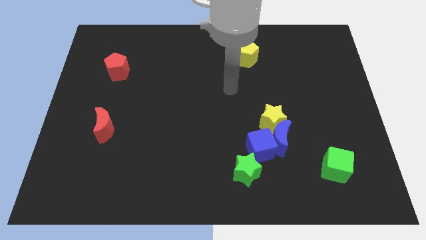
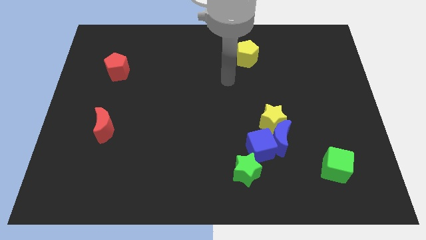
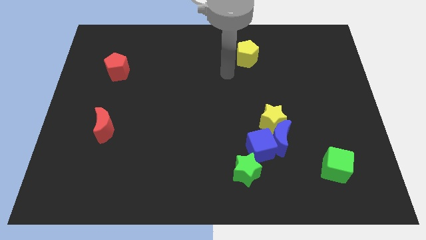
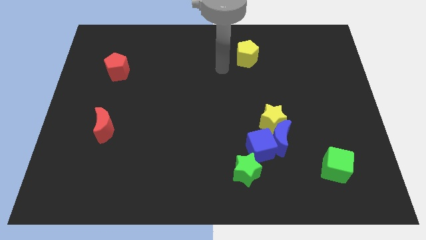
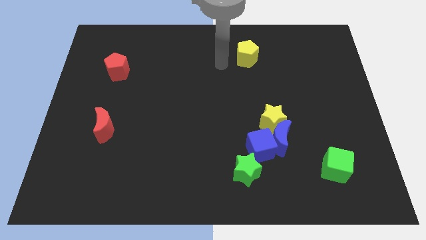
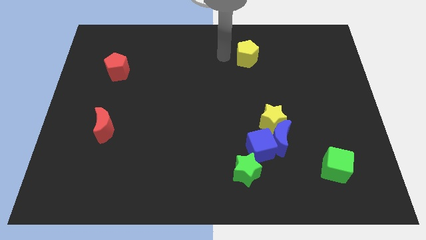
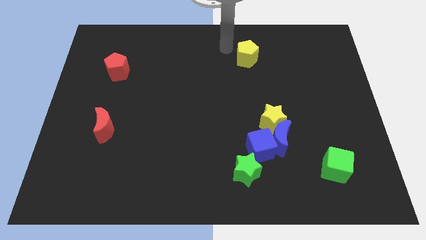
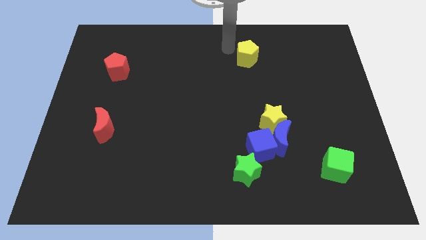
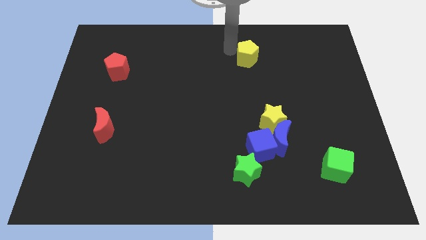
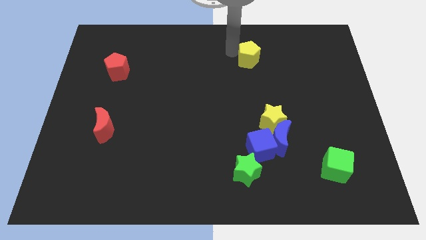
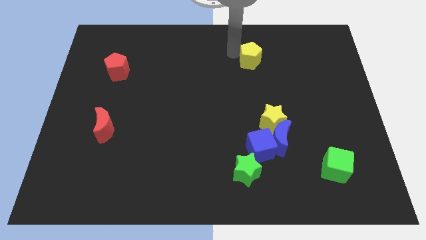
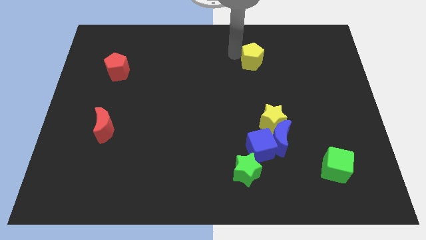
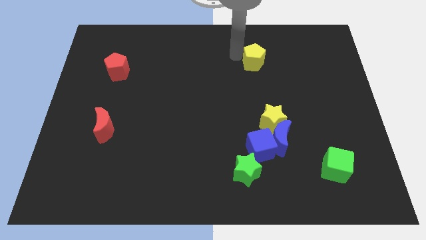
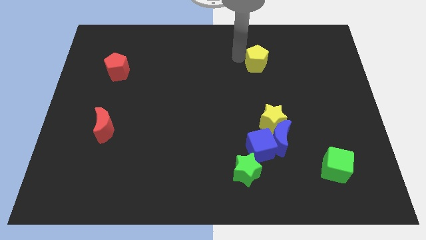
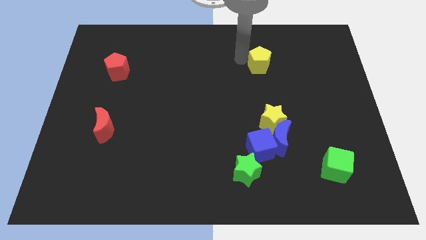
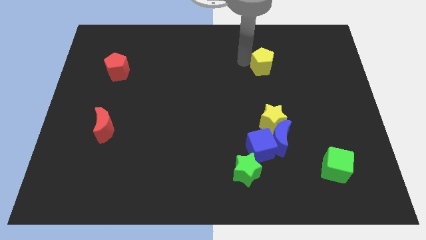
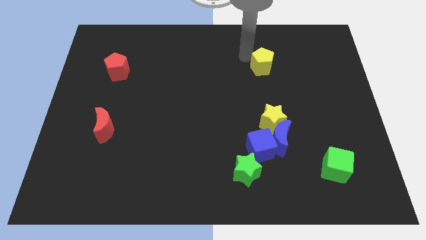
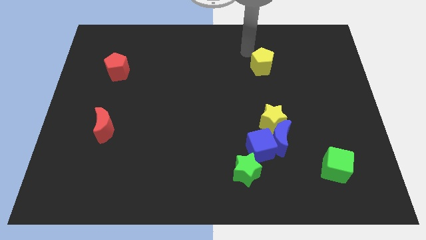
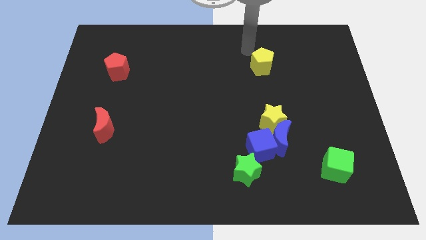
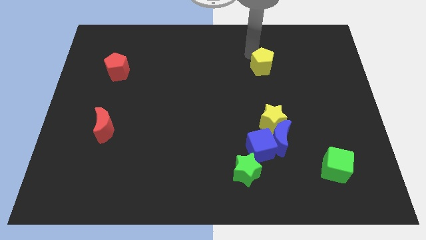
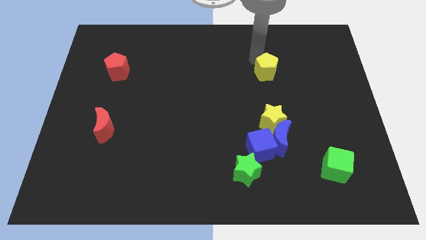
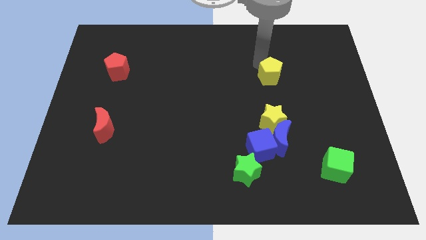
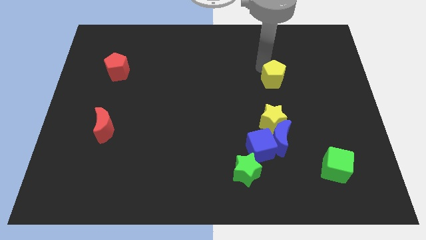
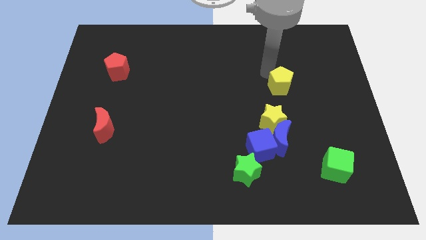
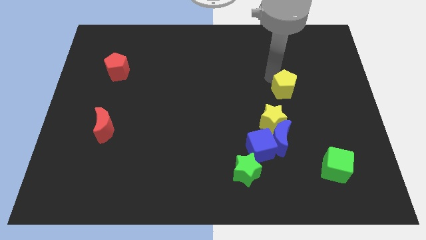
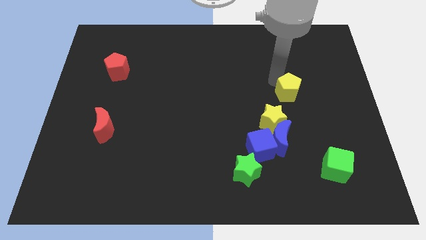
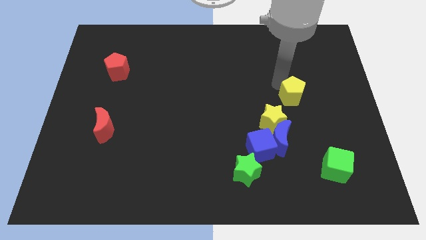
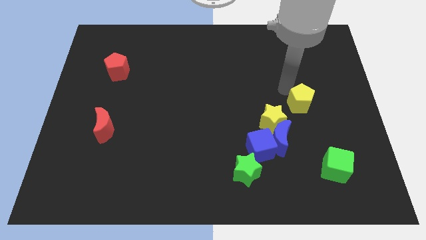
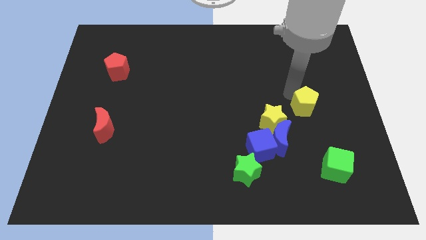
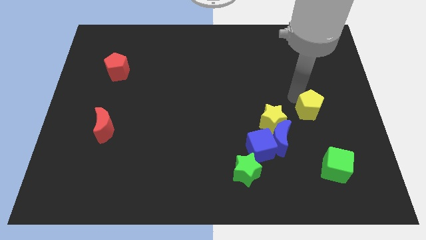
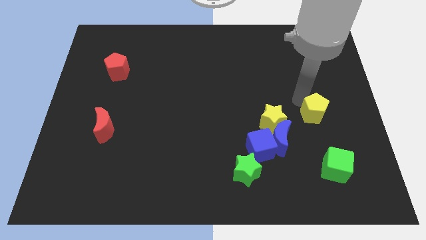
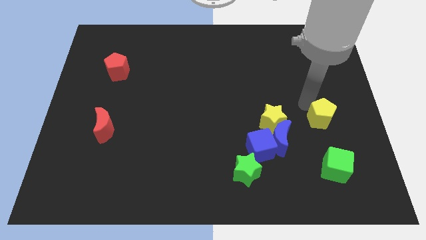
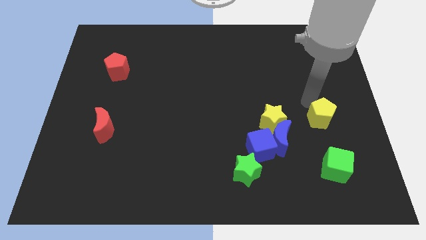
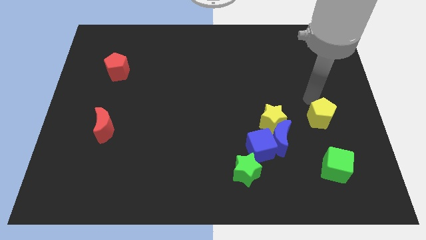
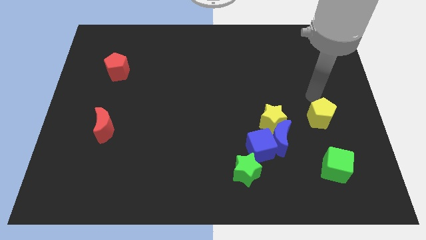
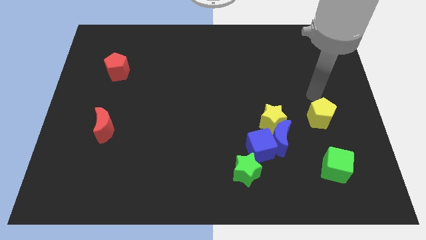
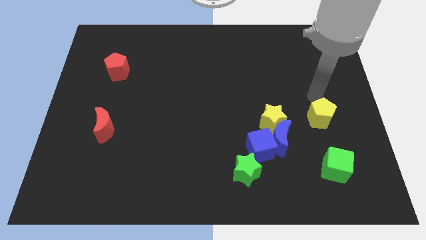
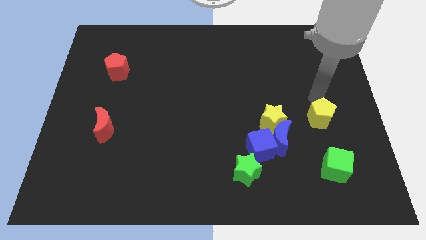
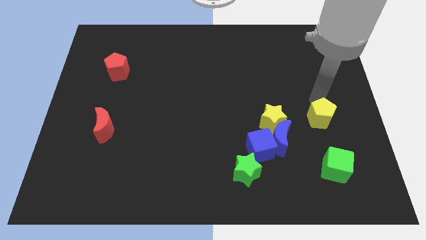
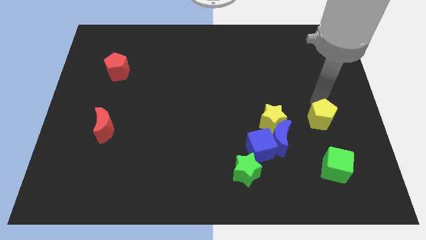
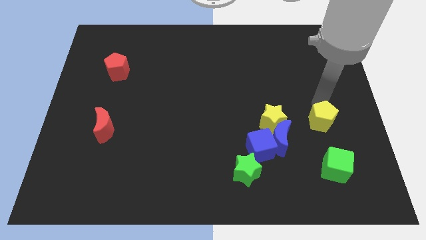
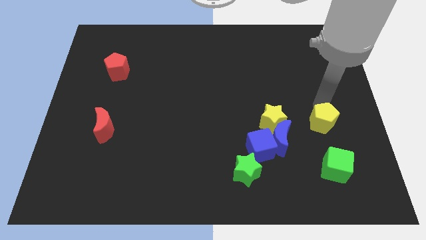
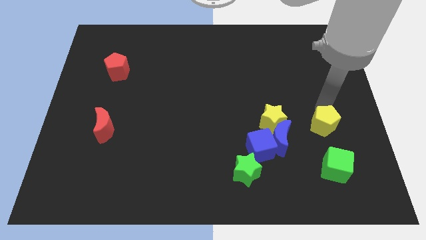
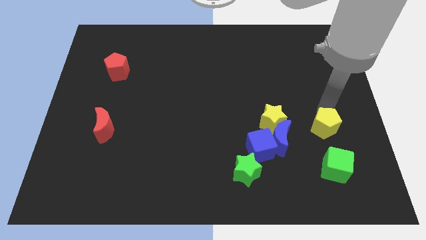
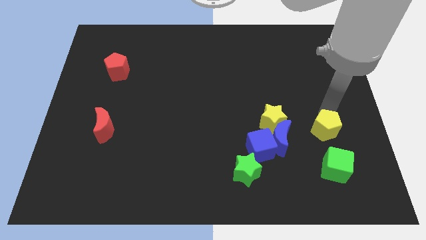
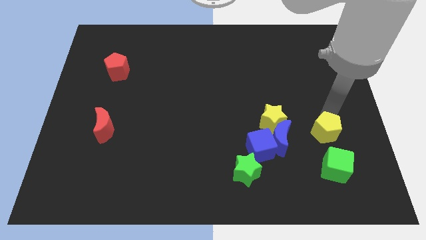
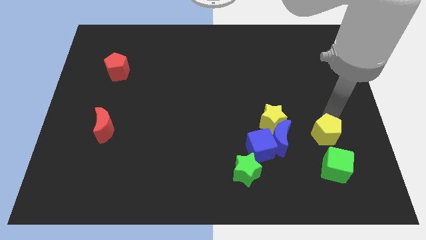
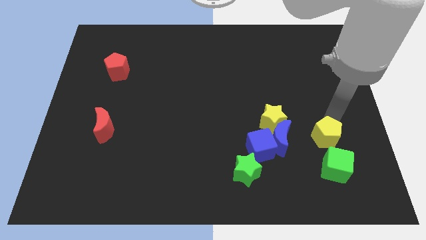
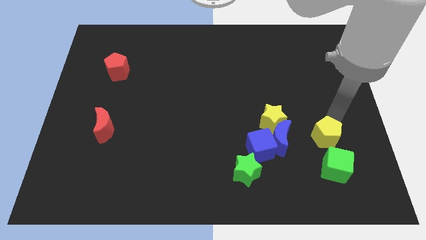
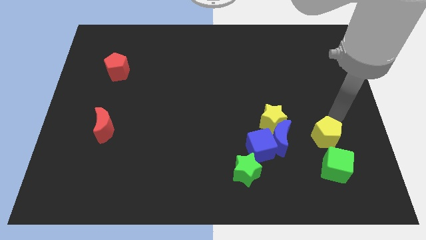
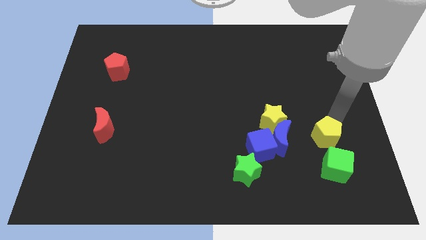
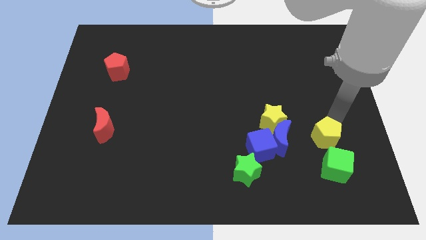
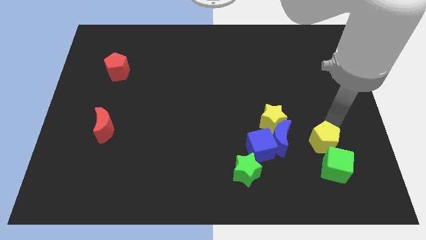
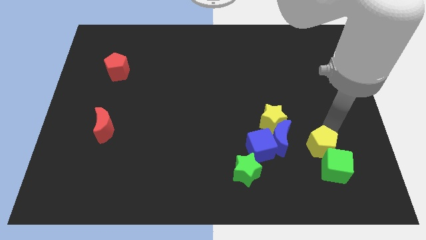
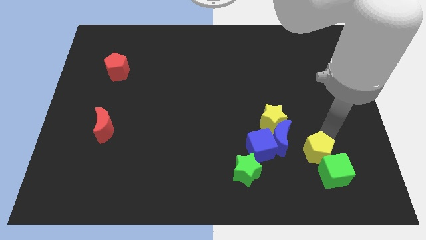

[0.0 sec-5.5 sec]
move the yellow pentagon to the bottom right of the blue moon
